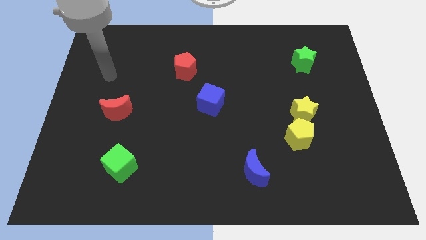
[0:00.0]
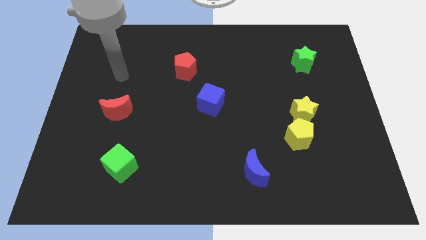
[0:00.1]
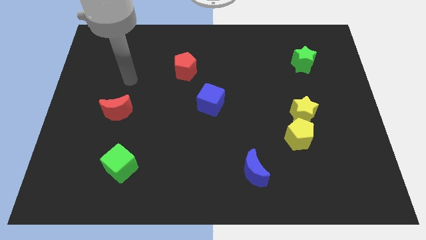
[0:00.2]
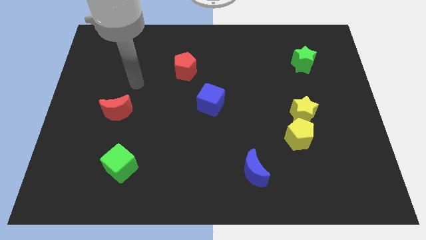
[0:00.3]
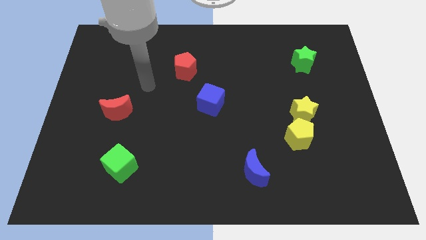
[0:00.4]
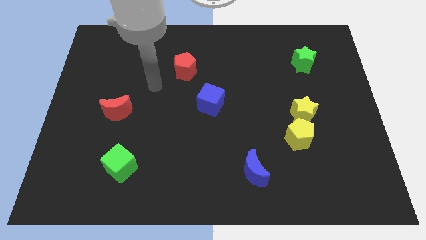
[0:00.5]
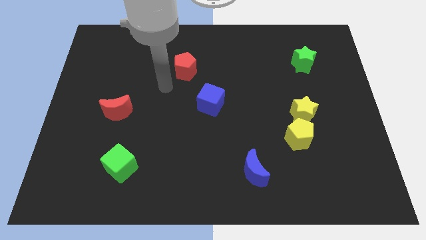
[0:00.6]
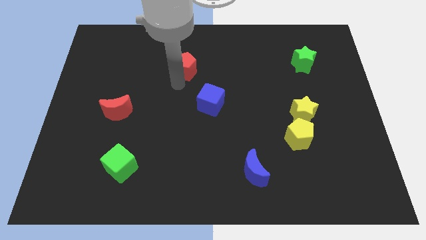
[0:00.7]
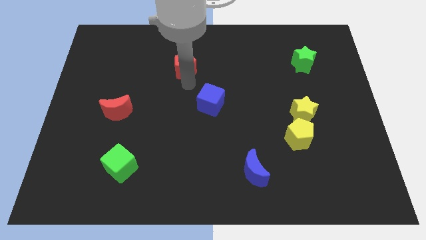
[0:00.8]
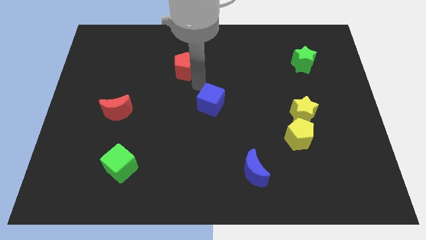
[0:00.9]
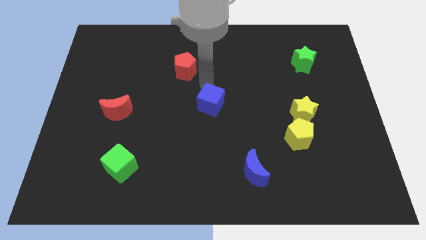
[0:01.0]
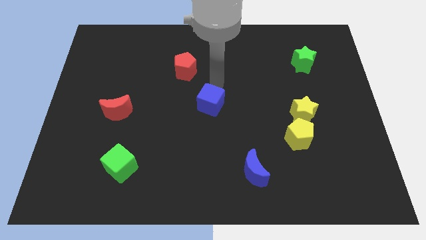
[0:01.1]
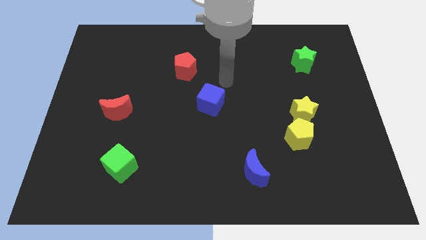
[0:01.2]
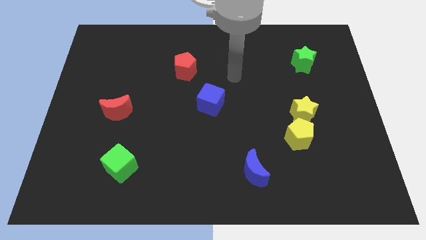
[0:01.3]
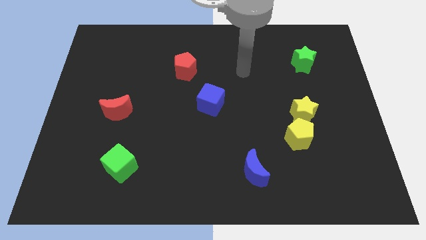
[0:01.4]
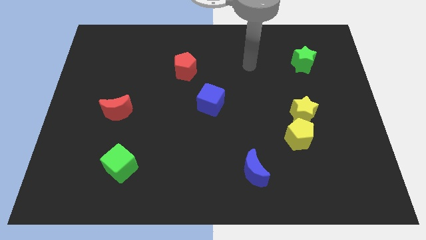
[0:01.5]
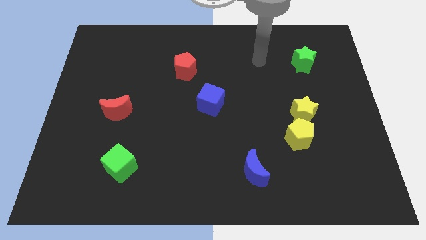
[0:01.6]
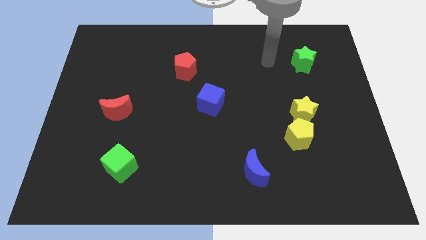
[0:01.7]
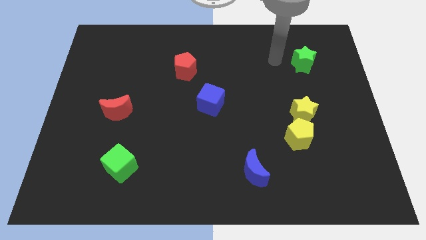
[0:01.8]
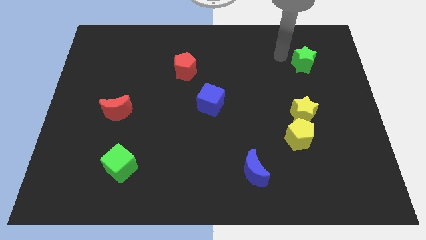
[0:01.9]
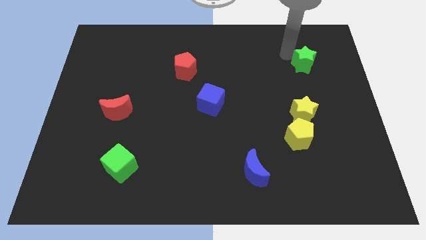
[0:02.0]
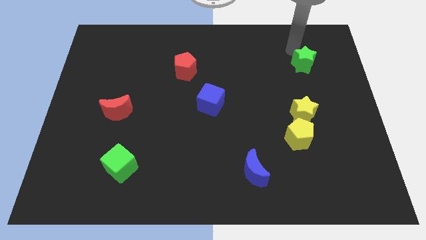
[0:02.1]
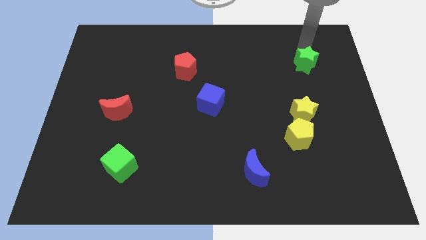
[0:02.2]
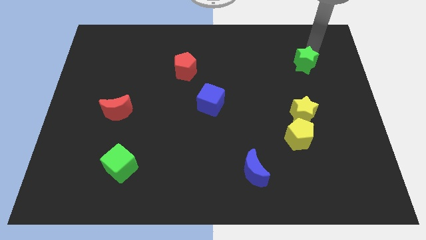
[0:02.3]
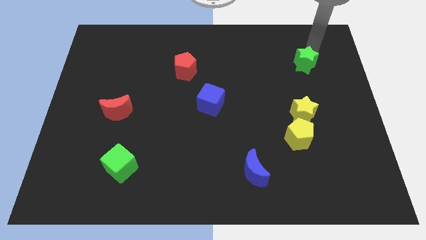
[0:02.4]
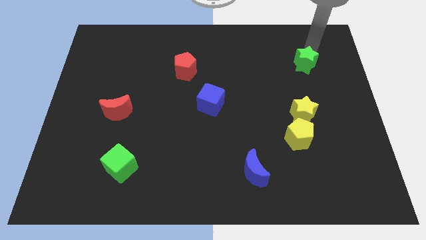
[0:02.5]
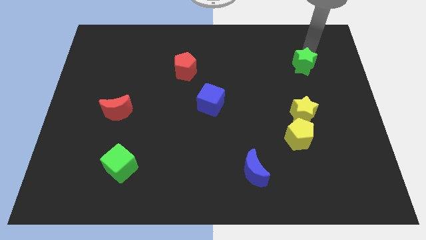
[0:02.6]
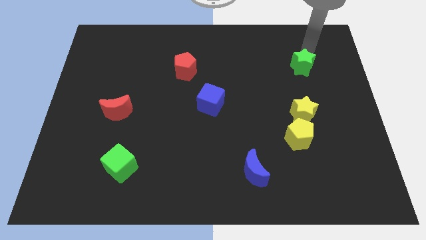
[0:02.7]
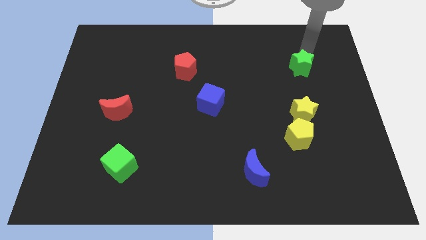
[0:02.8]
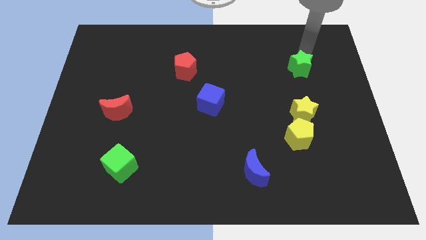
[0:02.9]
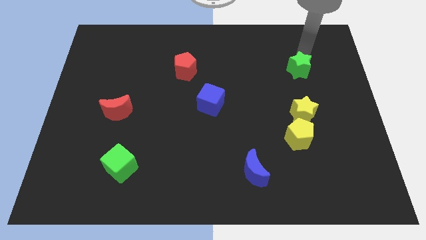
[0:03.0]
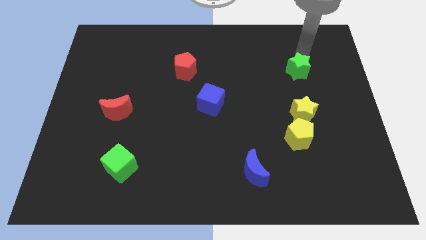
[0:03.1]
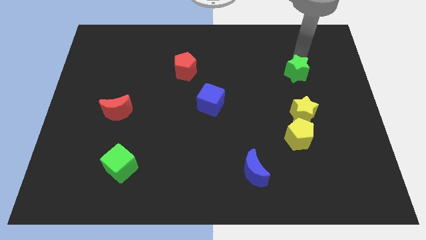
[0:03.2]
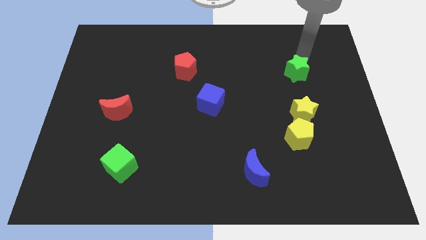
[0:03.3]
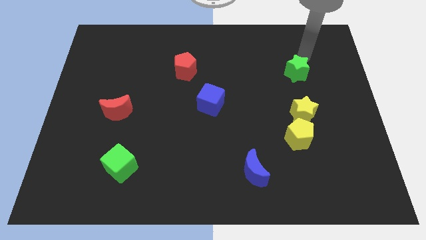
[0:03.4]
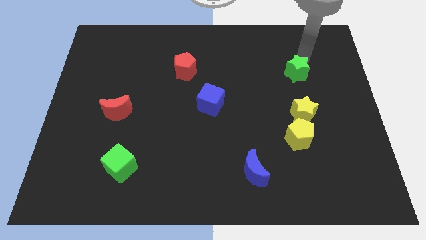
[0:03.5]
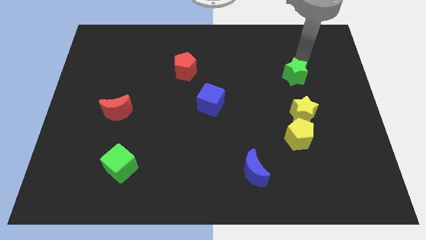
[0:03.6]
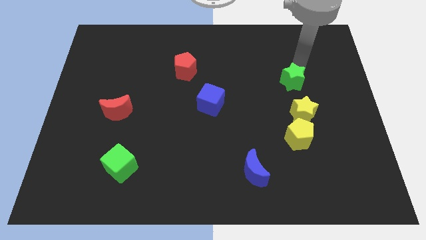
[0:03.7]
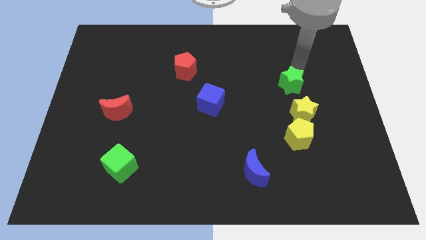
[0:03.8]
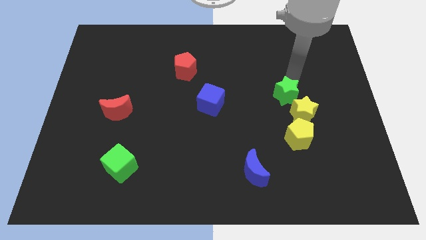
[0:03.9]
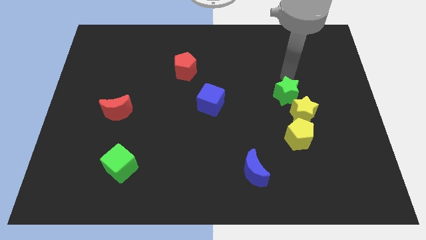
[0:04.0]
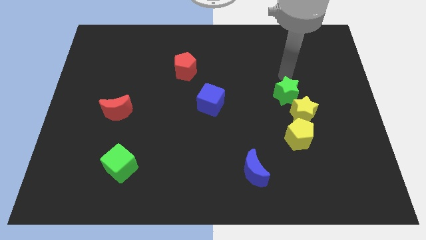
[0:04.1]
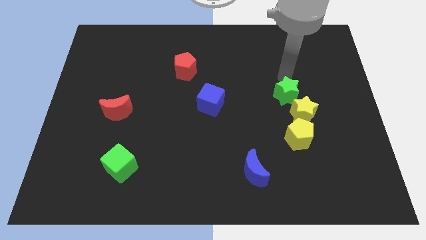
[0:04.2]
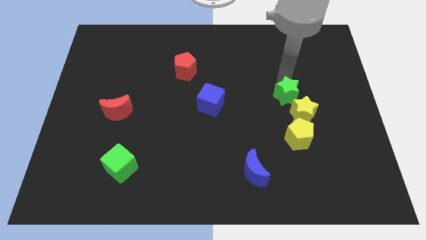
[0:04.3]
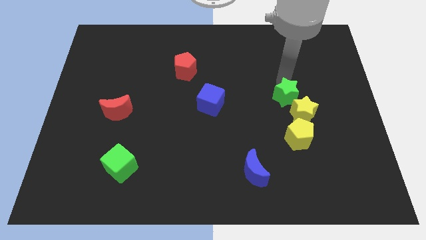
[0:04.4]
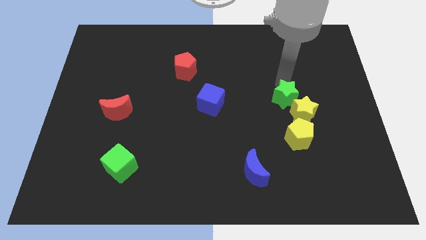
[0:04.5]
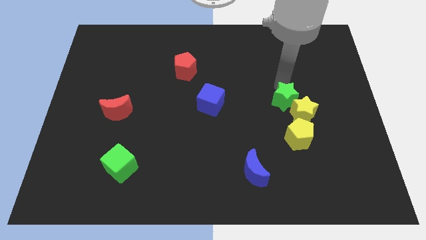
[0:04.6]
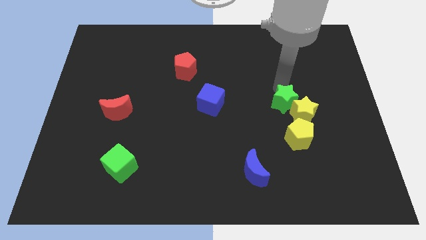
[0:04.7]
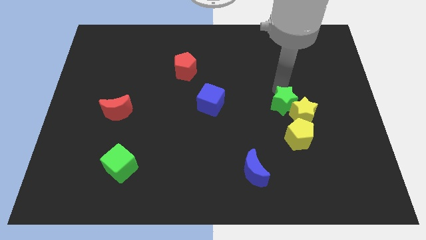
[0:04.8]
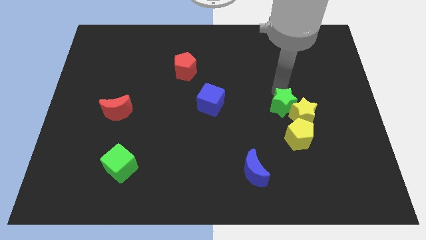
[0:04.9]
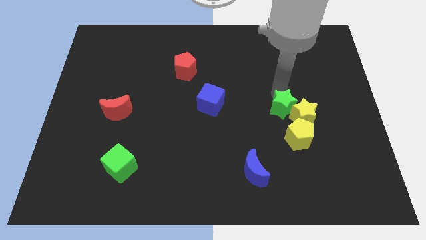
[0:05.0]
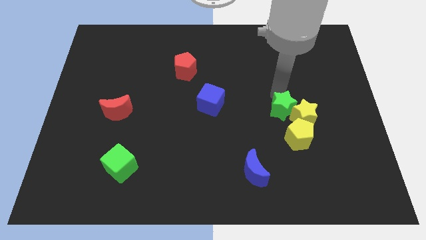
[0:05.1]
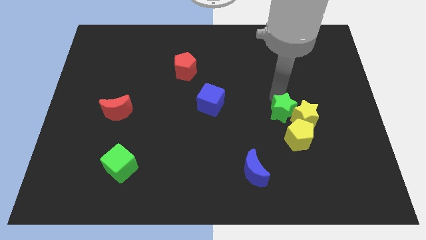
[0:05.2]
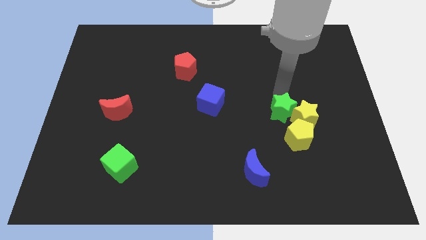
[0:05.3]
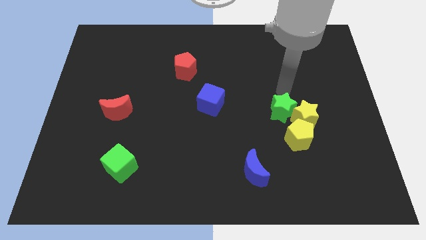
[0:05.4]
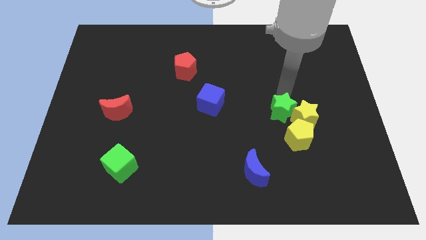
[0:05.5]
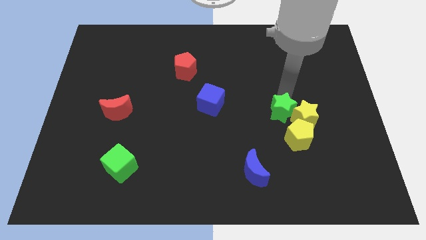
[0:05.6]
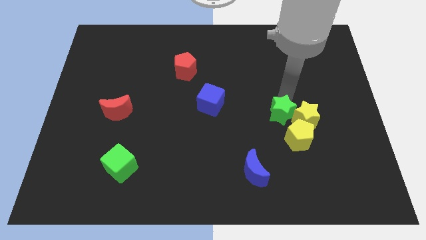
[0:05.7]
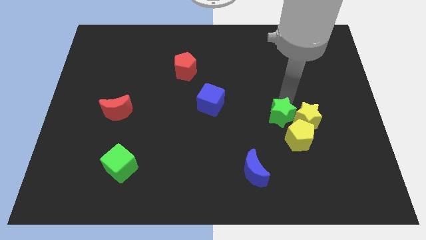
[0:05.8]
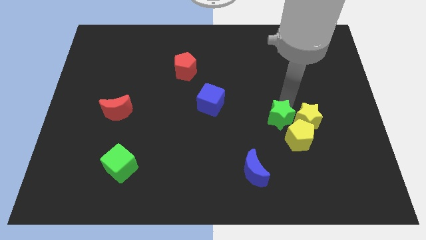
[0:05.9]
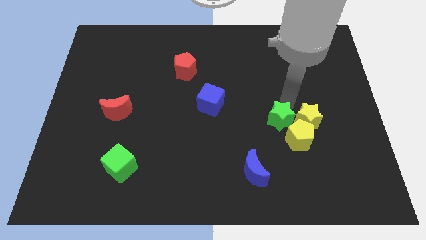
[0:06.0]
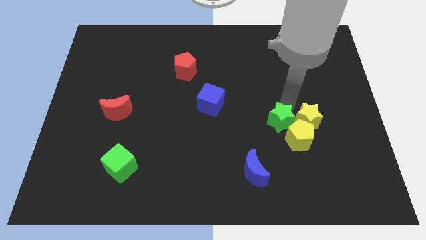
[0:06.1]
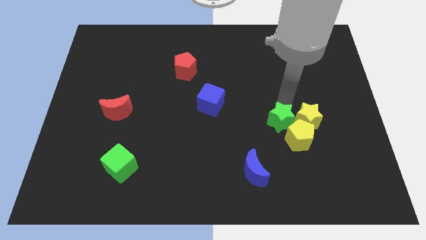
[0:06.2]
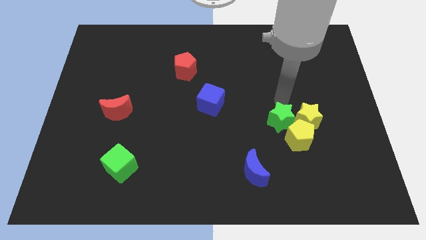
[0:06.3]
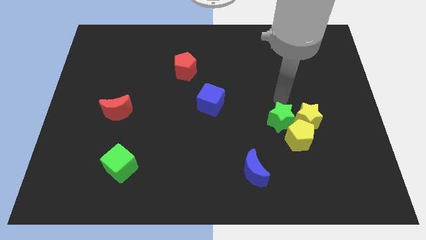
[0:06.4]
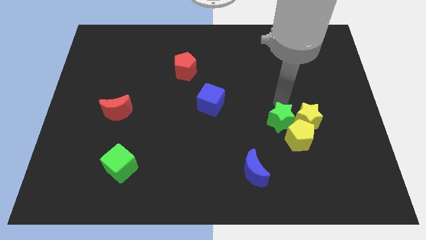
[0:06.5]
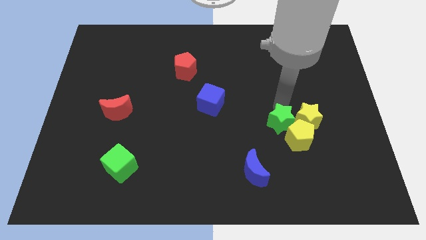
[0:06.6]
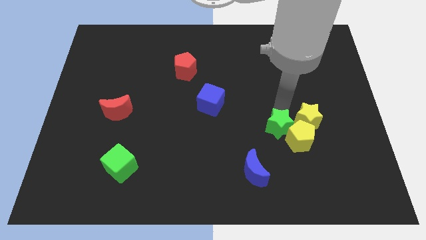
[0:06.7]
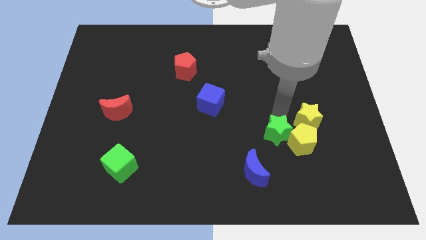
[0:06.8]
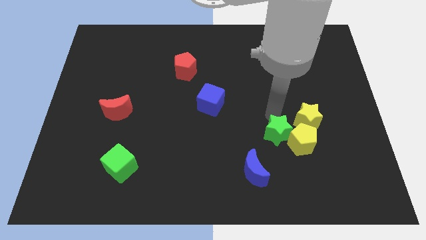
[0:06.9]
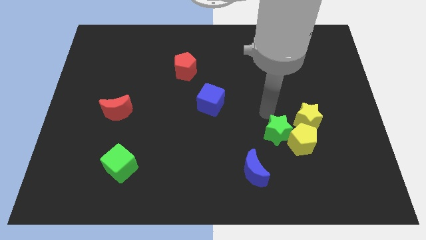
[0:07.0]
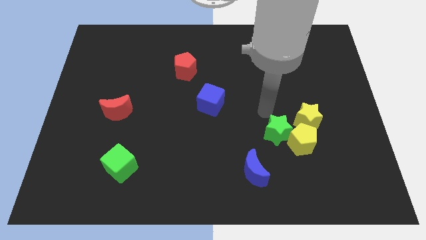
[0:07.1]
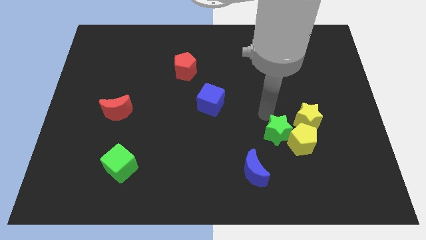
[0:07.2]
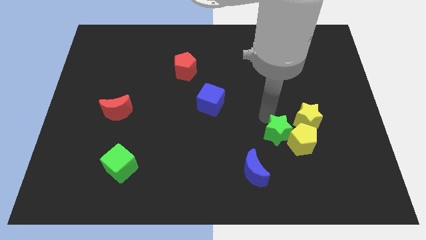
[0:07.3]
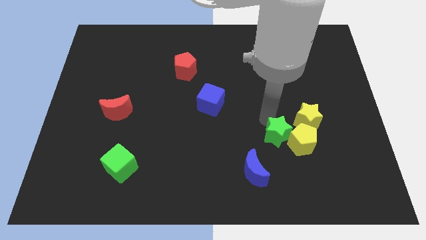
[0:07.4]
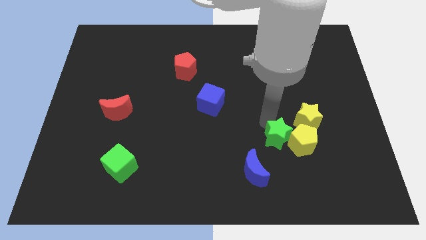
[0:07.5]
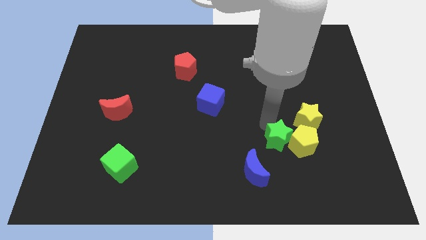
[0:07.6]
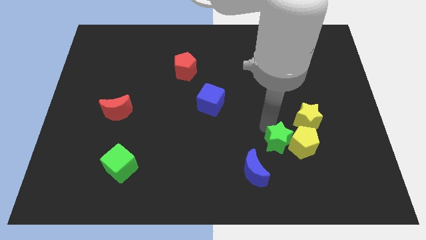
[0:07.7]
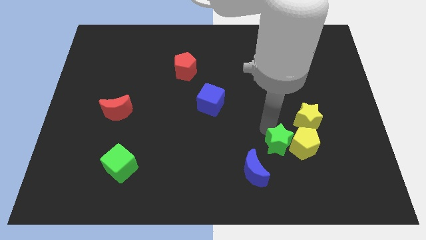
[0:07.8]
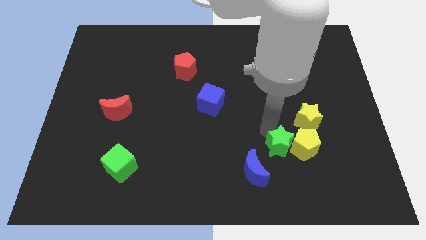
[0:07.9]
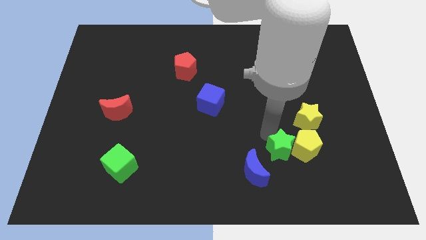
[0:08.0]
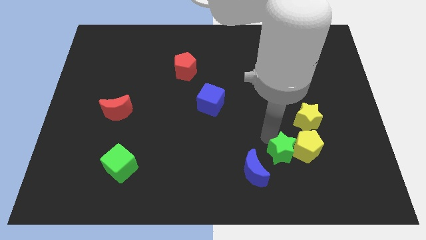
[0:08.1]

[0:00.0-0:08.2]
put the green star just right of the blue moon
